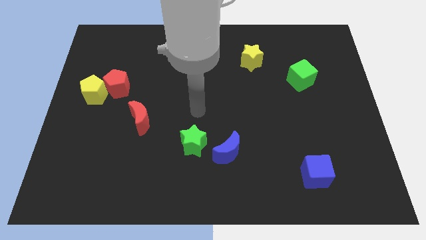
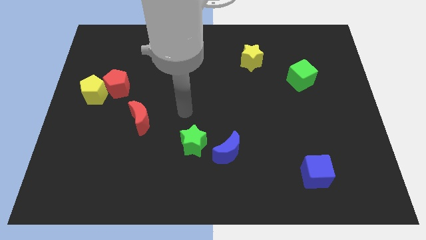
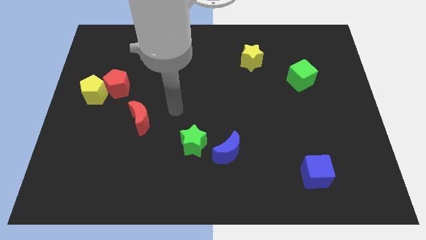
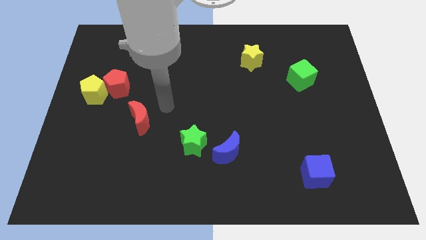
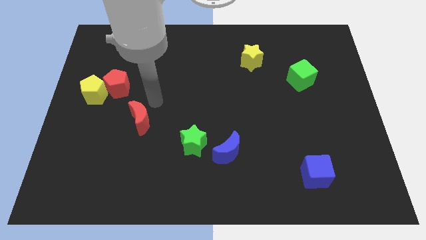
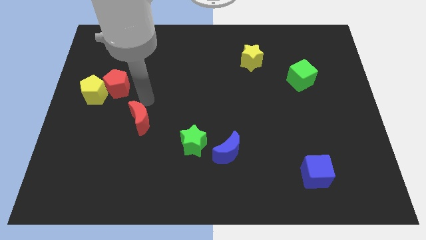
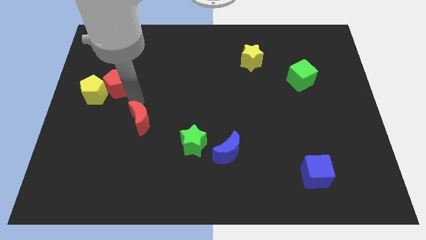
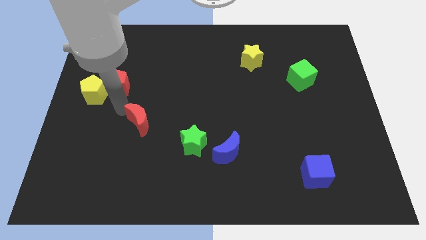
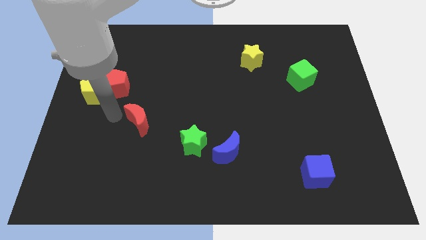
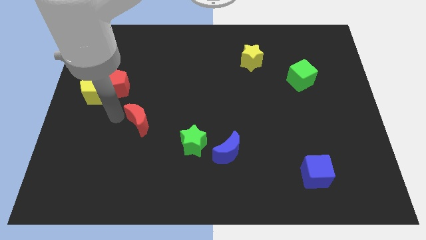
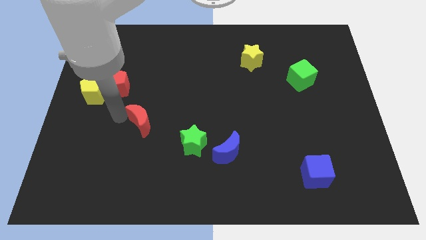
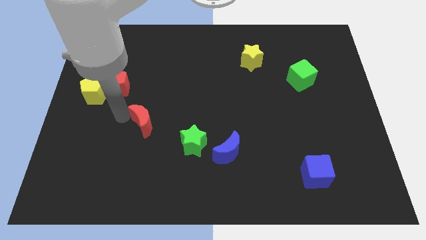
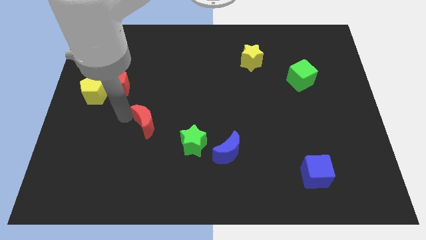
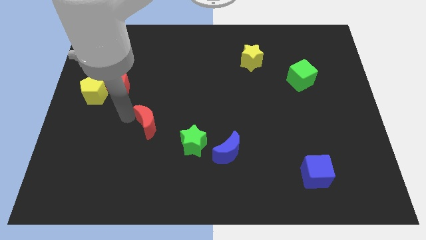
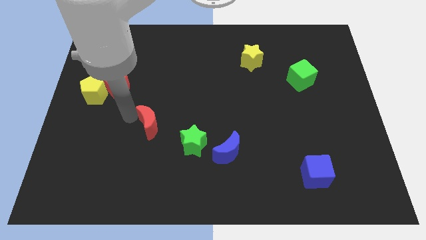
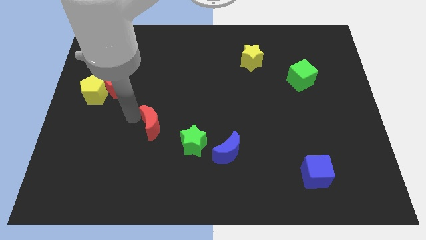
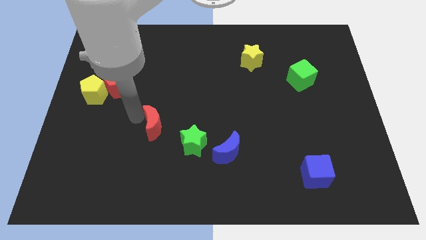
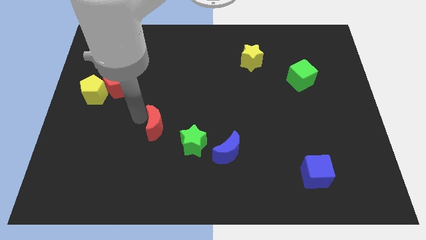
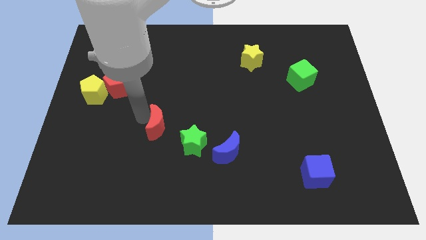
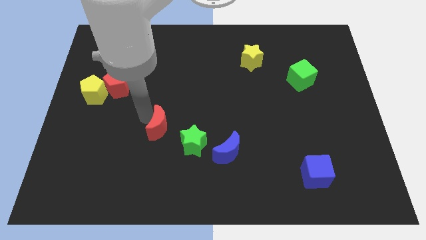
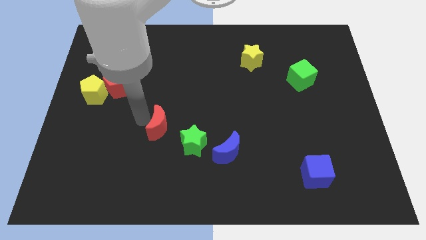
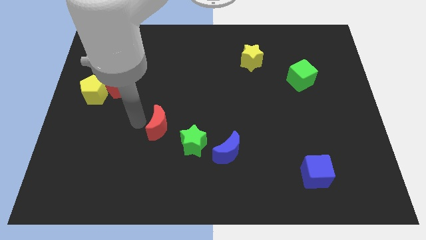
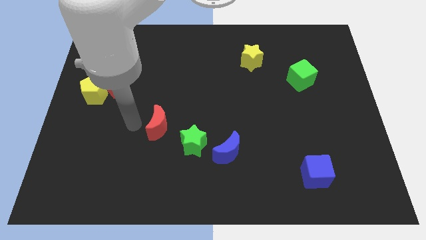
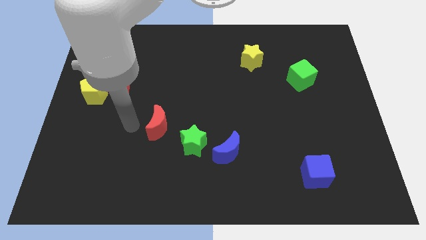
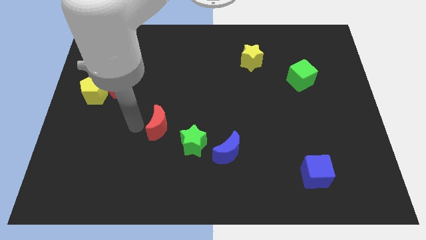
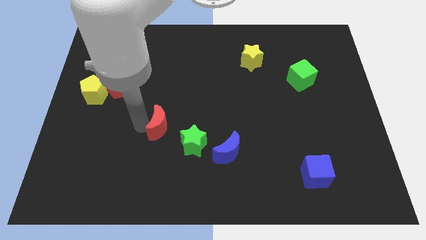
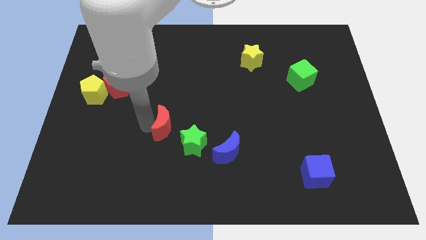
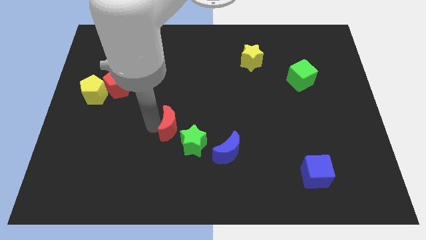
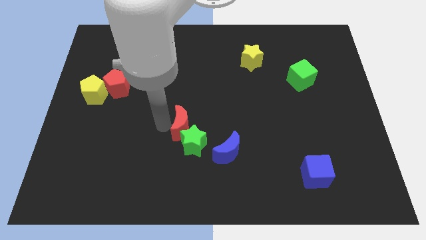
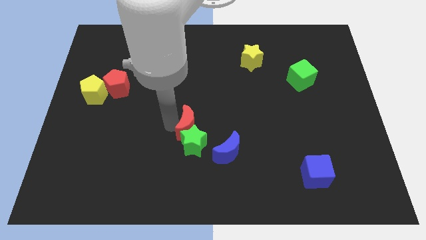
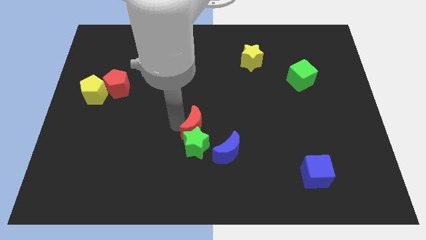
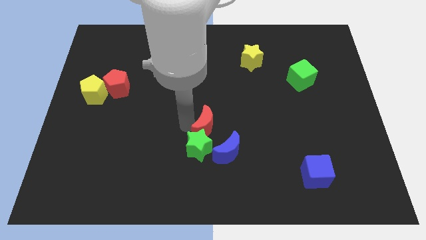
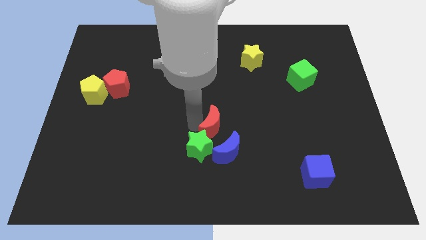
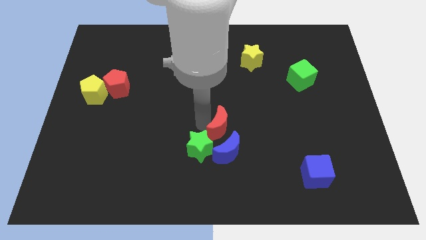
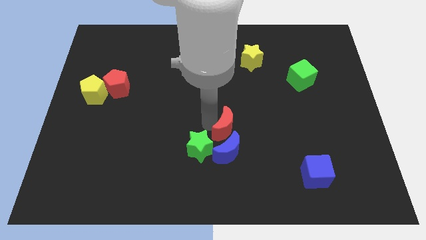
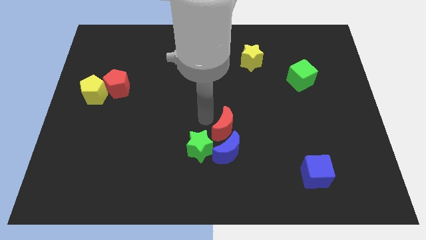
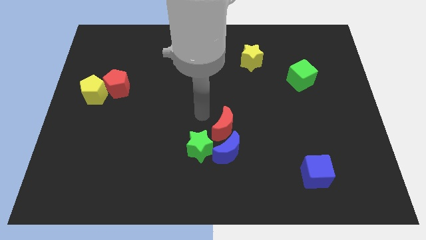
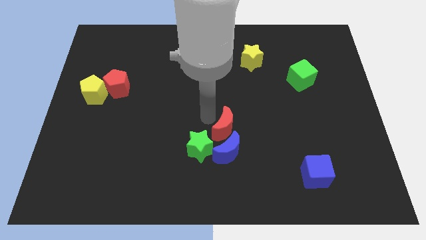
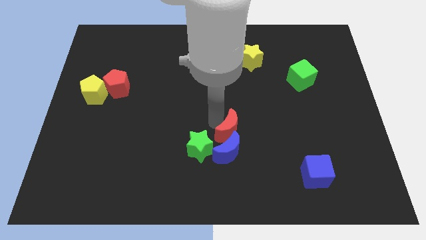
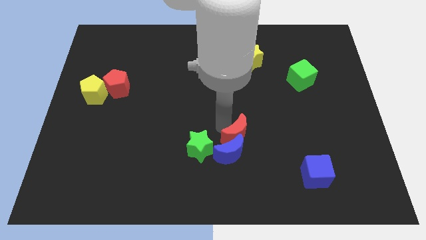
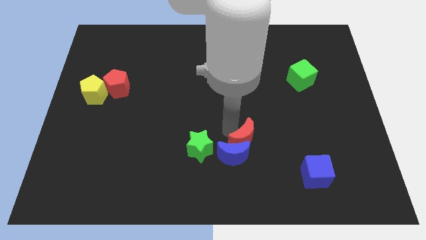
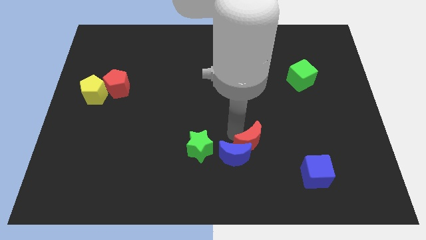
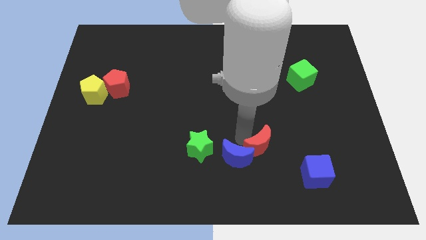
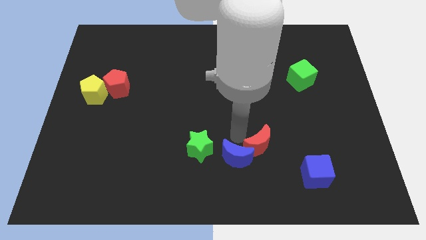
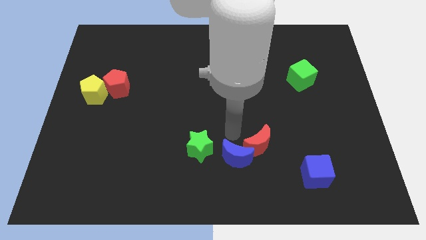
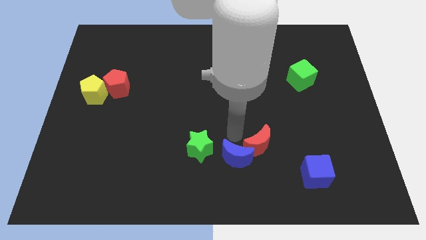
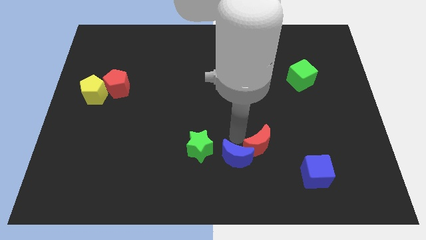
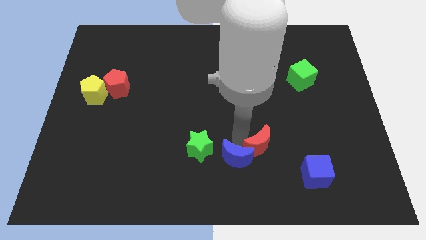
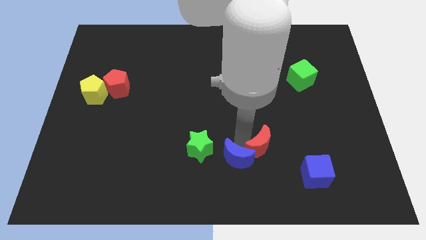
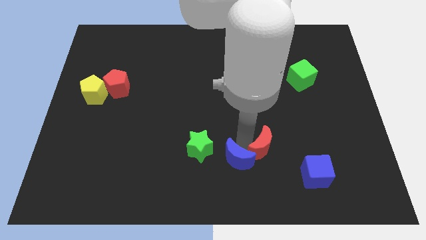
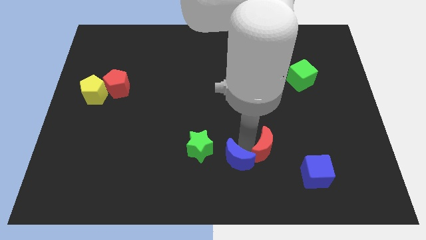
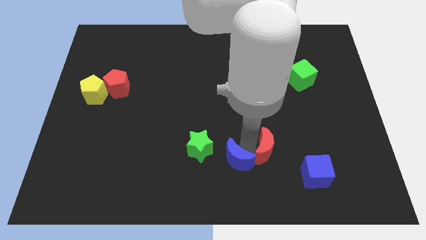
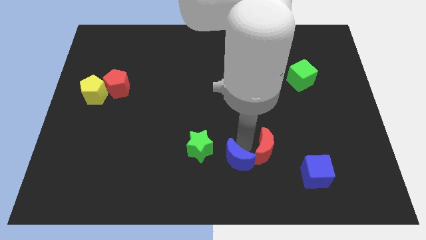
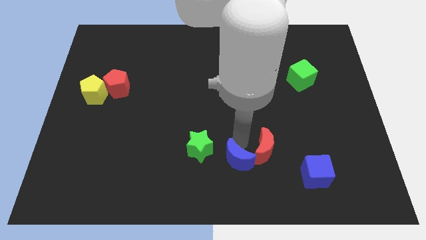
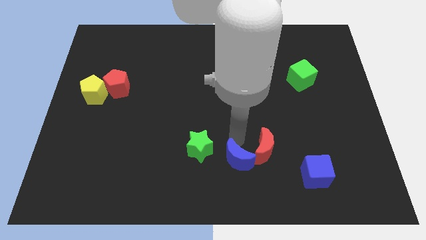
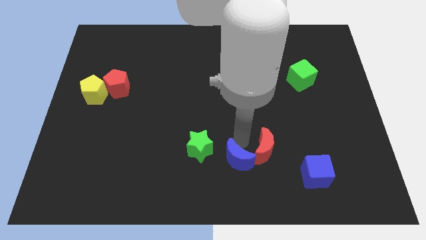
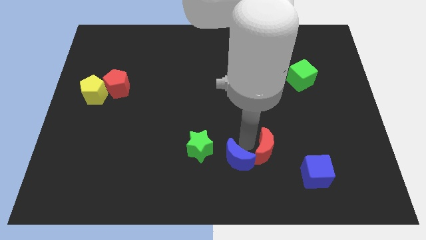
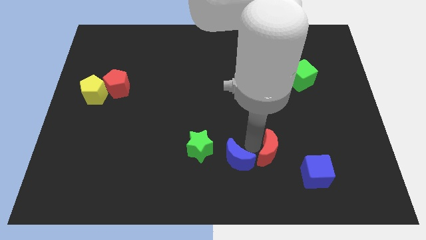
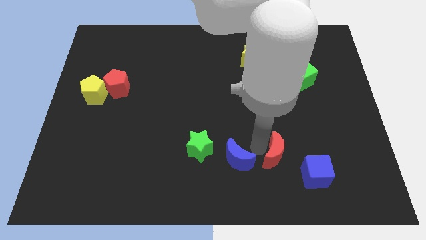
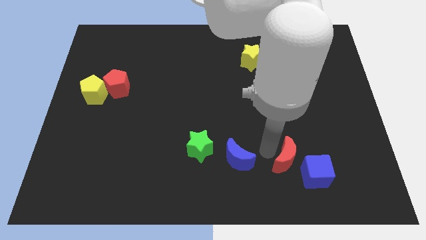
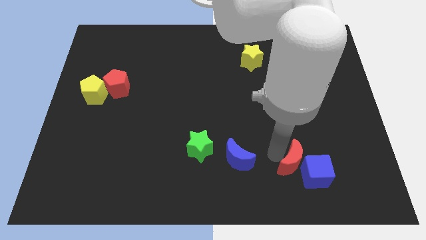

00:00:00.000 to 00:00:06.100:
push the red moon towards the blue cube

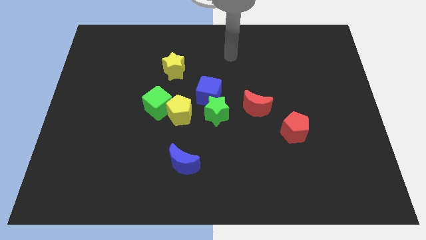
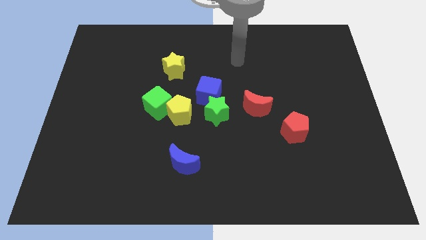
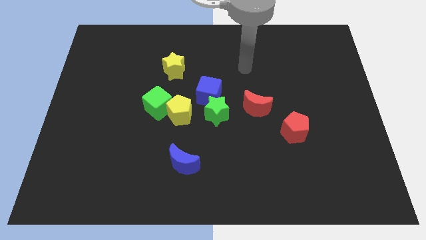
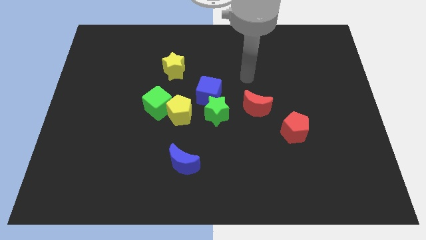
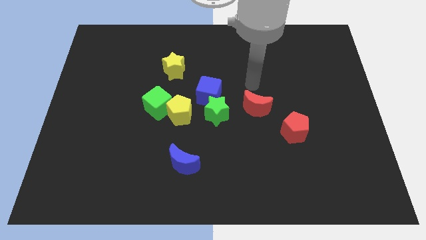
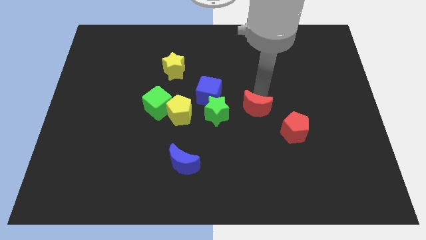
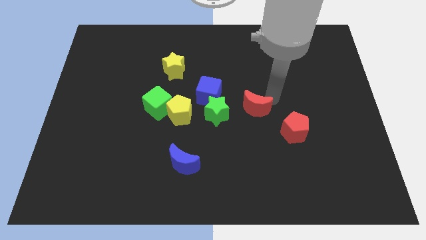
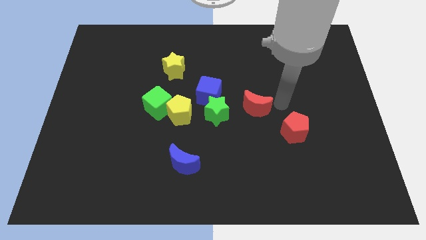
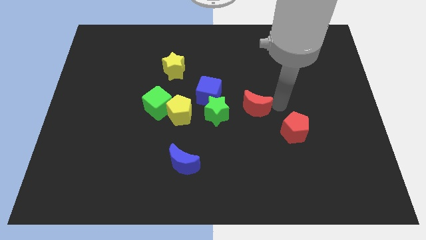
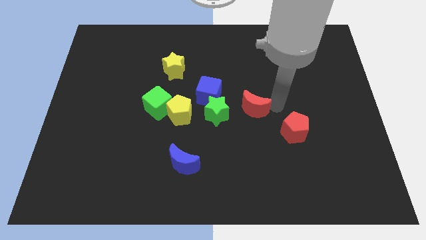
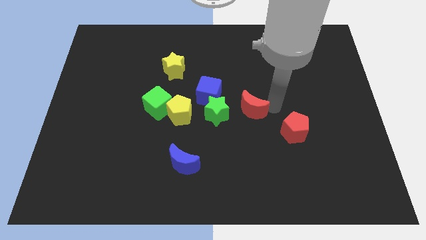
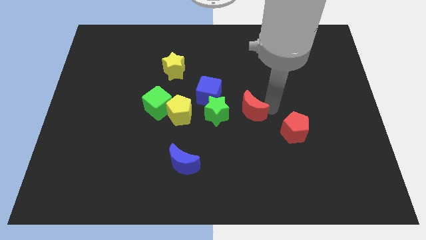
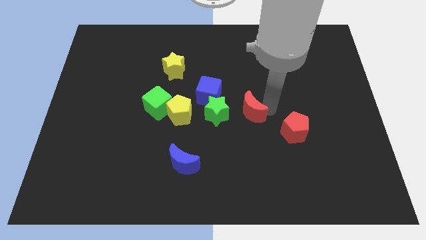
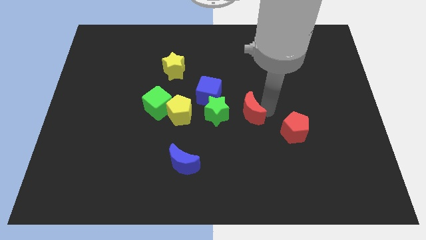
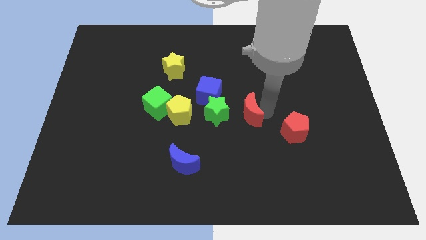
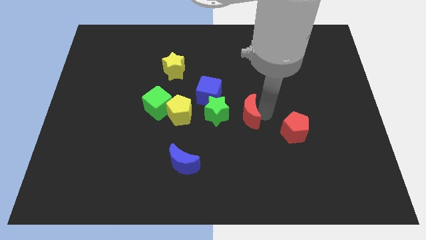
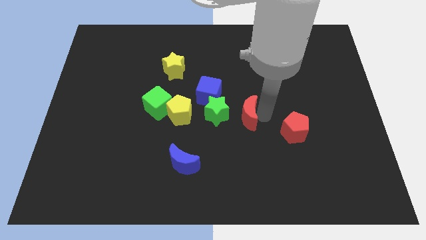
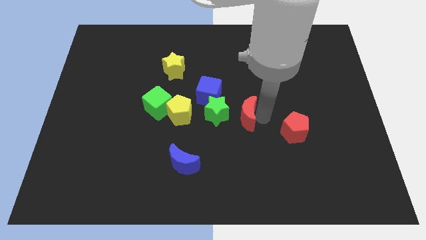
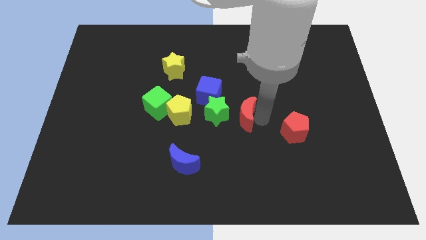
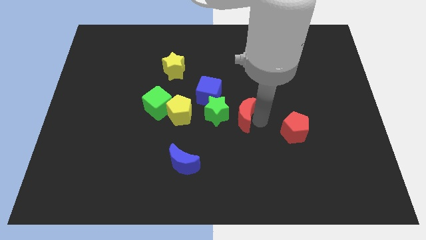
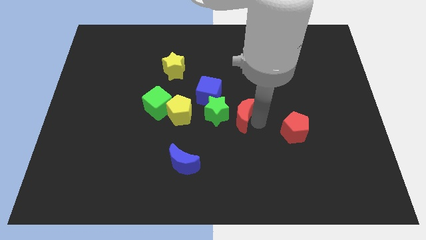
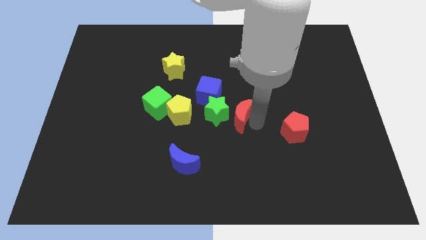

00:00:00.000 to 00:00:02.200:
slide the red moon towards the green star
